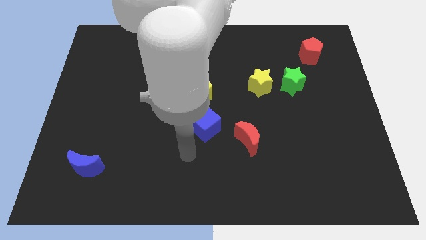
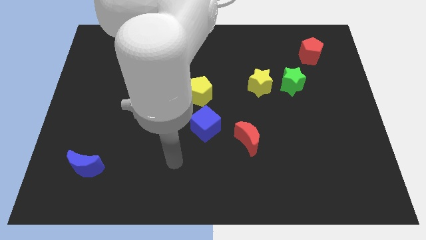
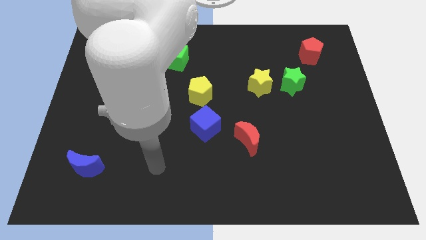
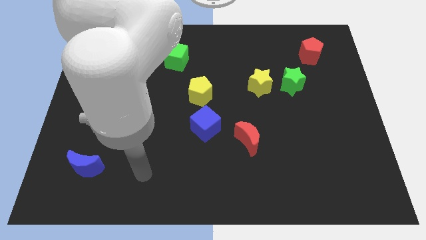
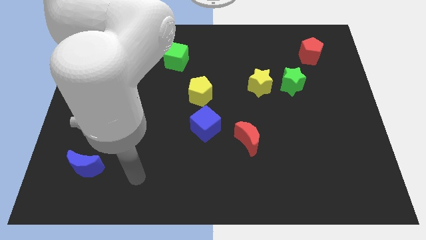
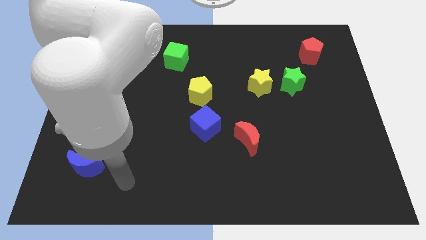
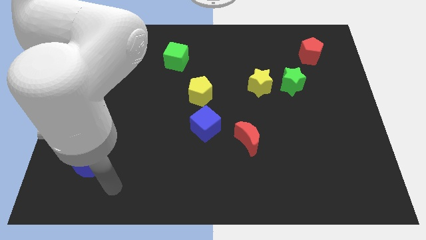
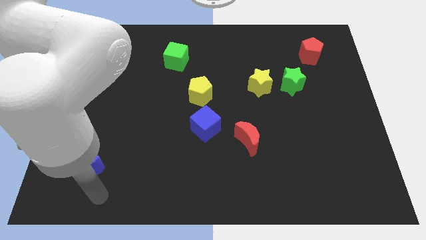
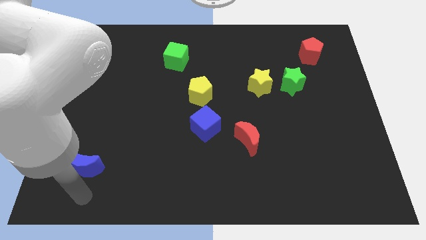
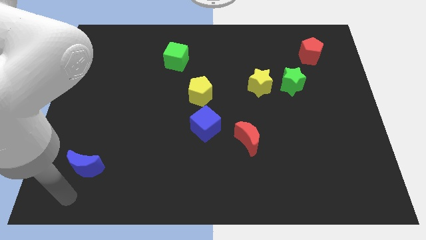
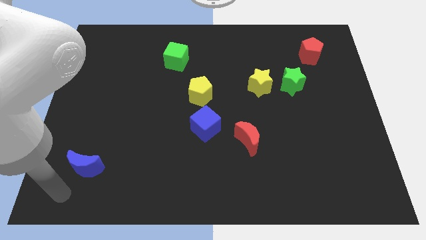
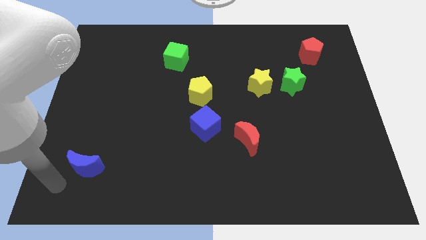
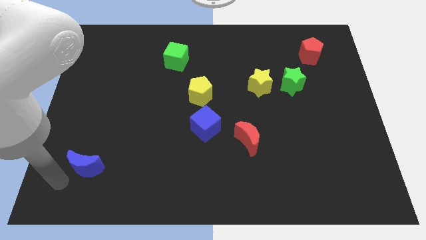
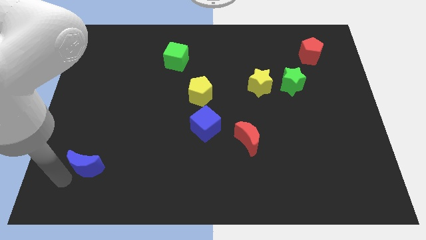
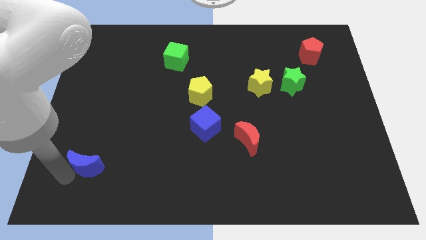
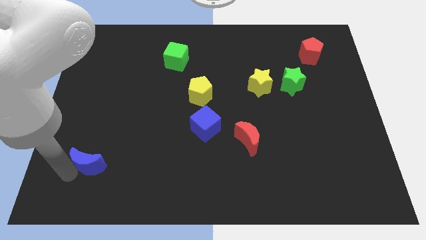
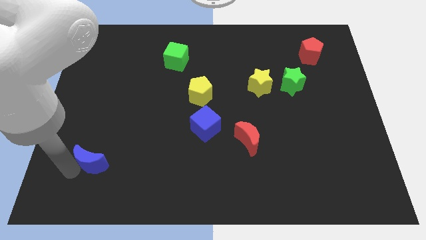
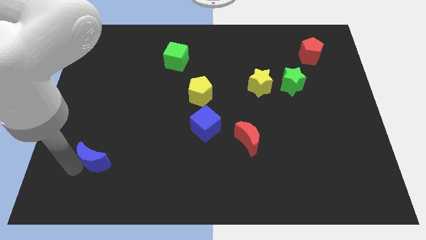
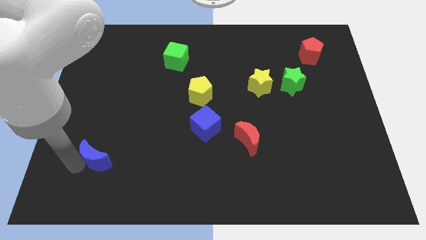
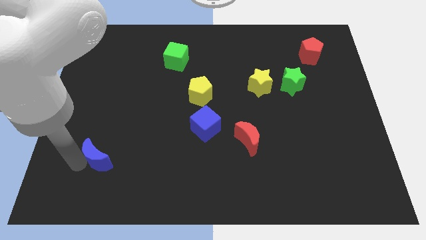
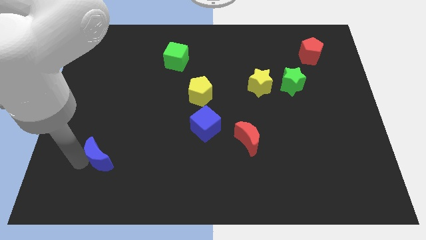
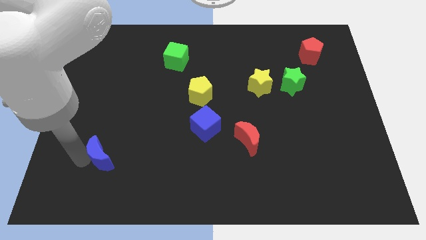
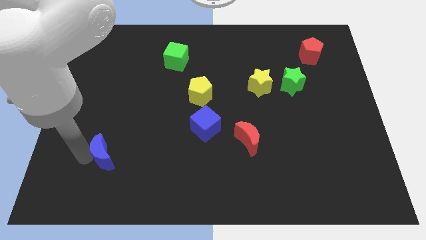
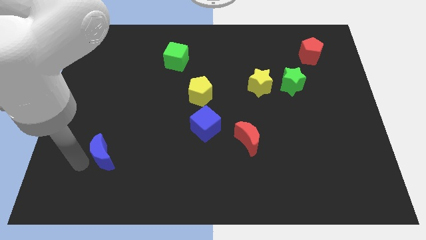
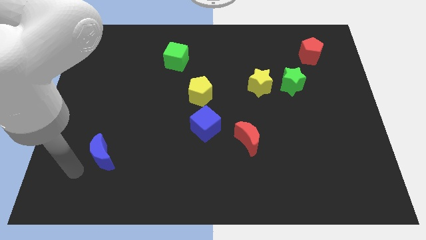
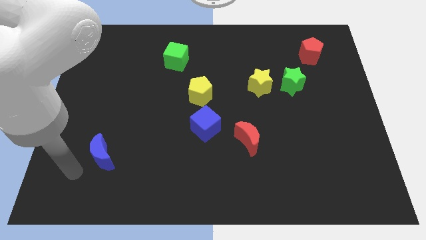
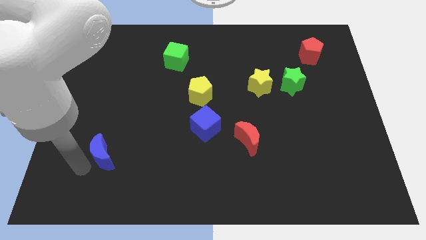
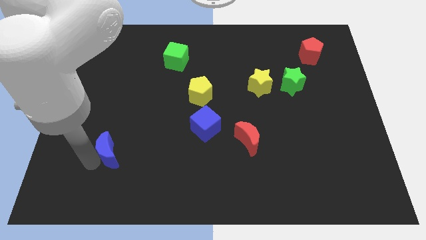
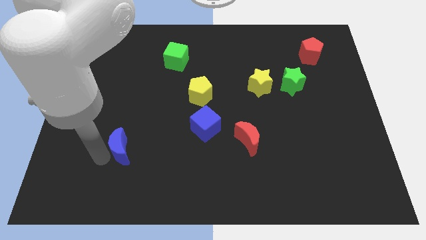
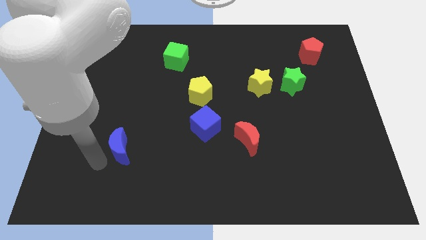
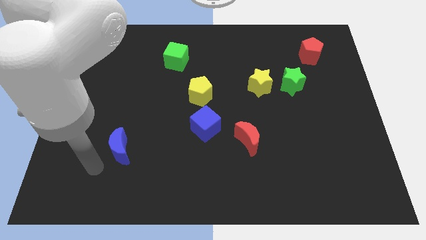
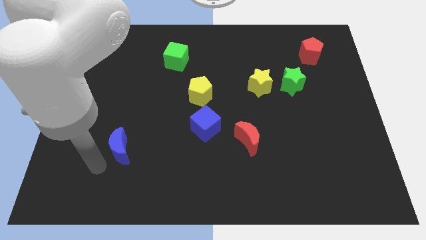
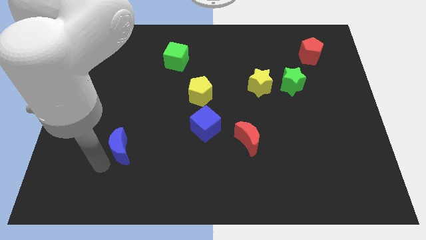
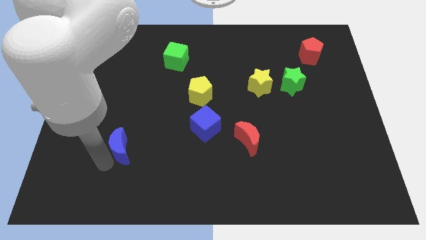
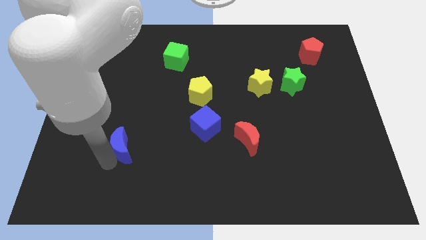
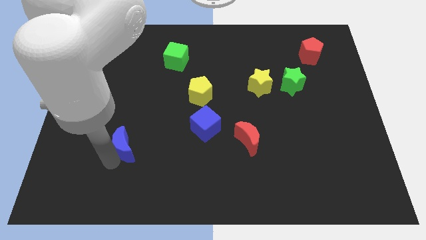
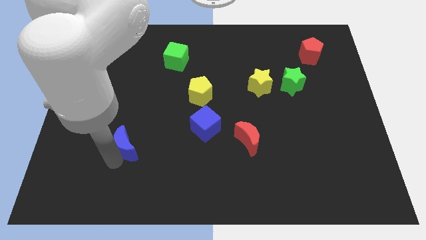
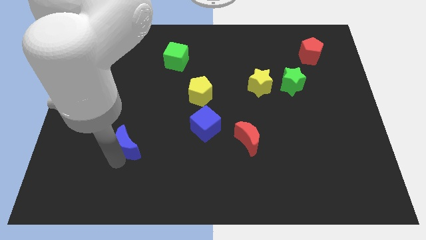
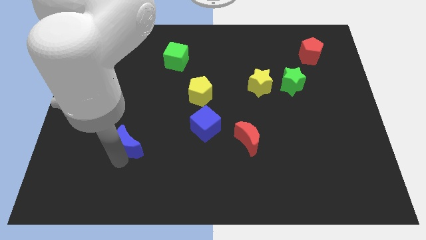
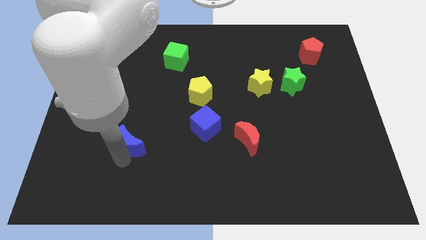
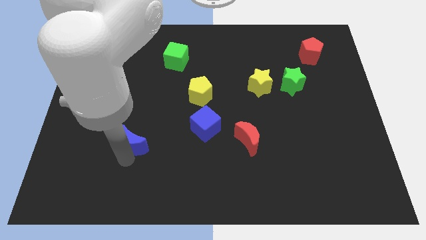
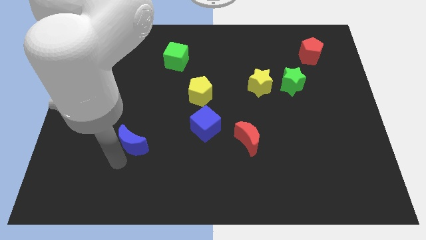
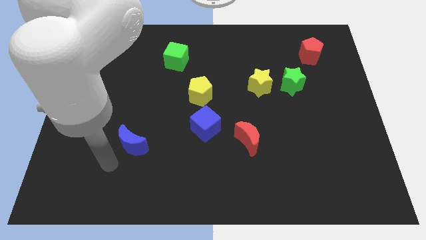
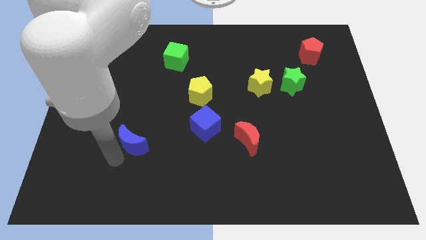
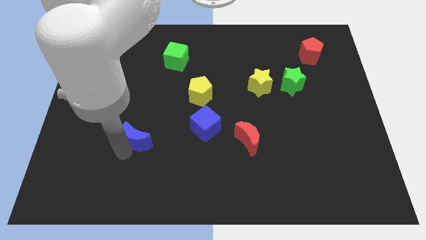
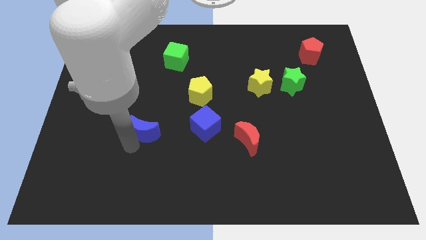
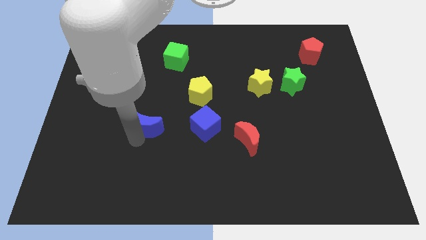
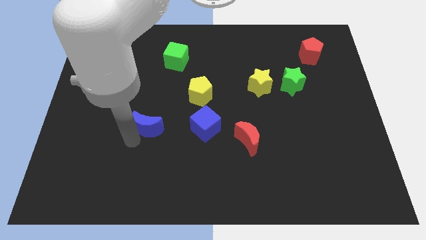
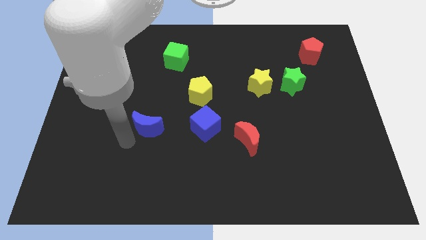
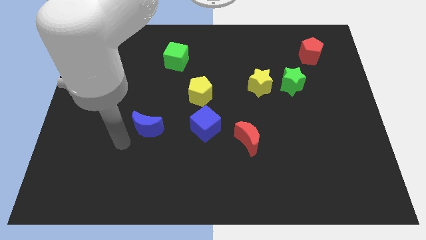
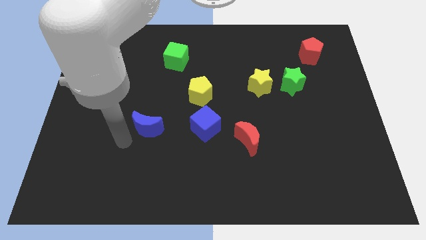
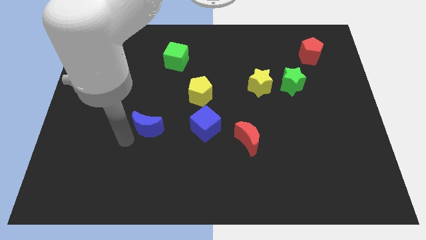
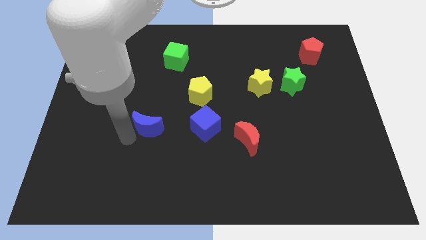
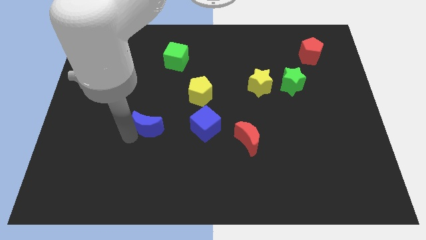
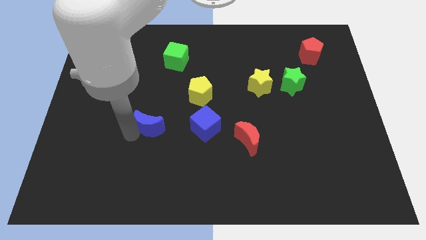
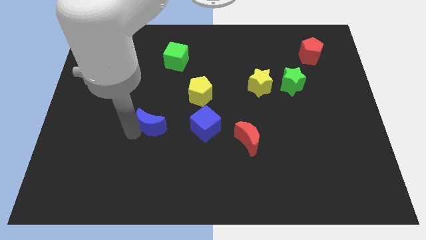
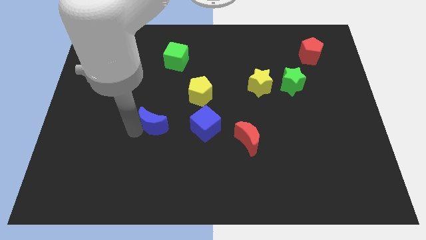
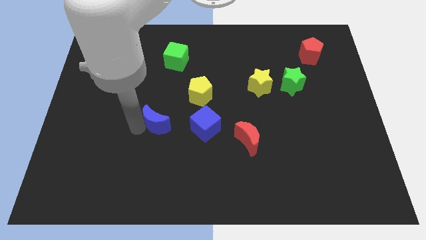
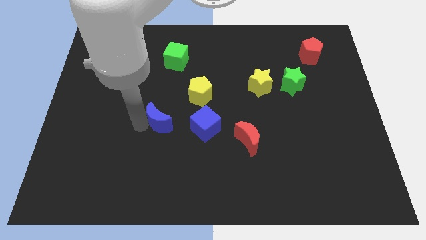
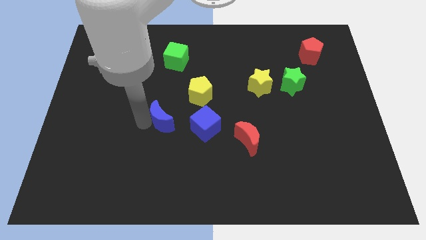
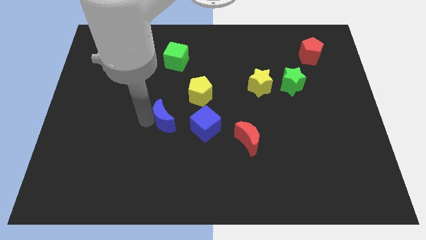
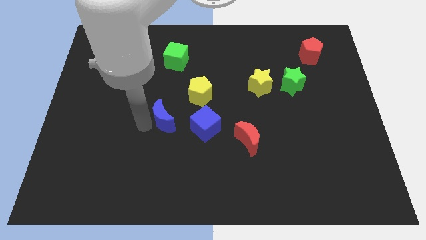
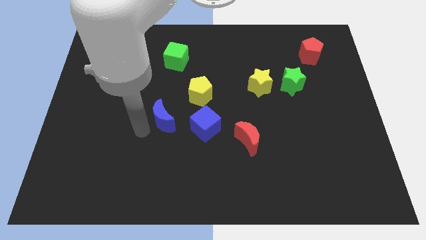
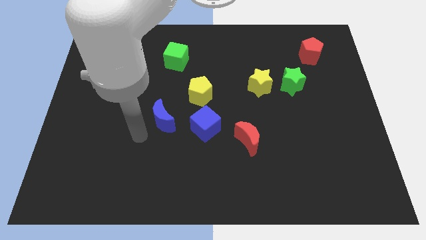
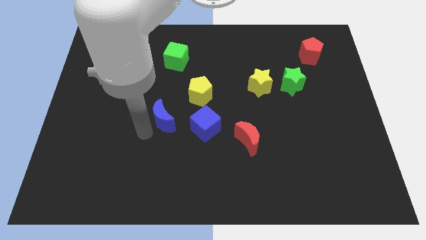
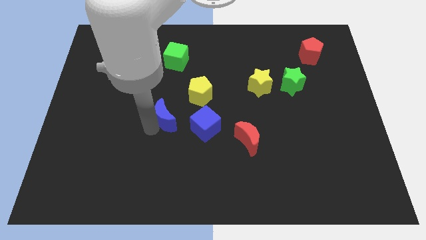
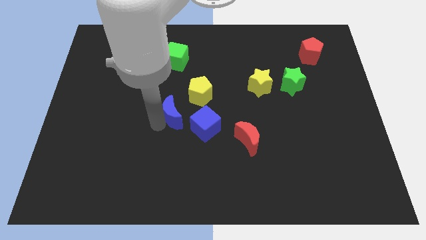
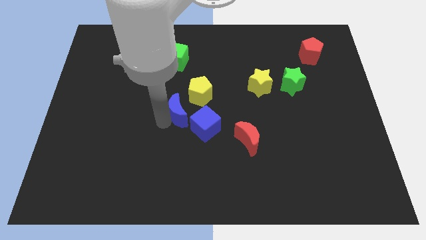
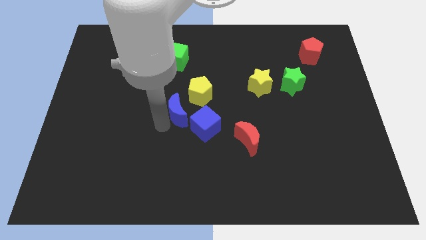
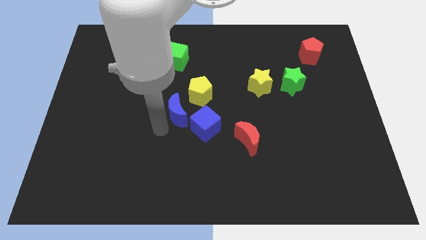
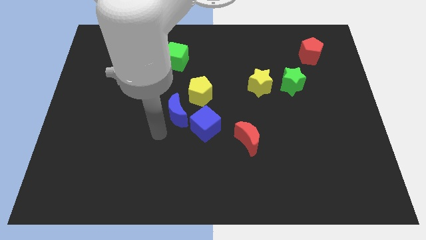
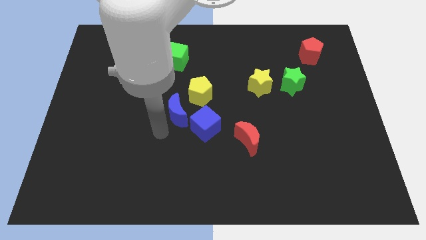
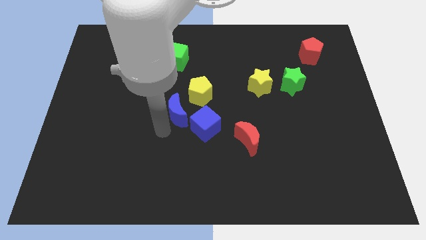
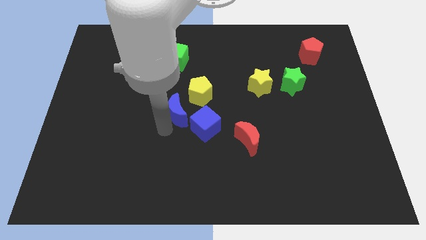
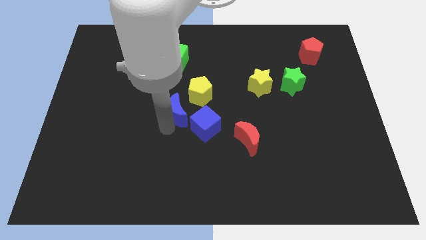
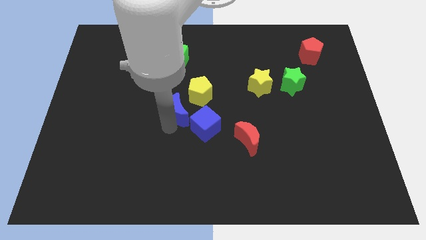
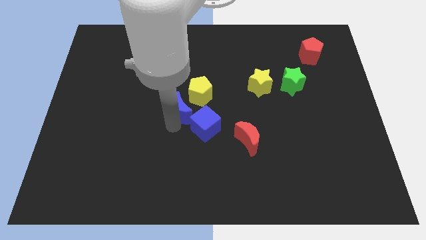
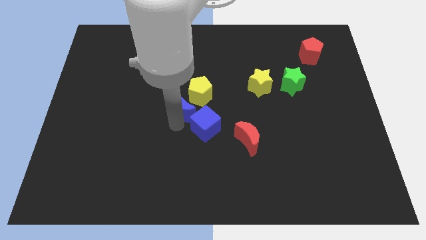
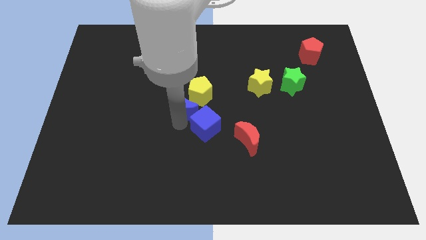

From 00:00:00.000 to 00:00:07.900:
move the blue moon next to the yellow pentagon
